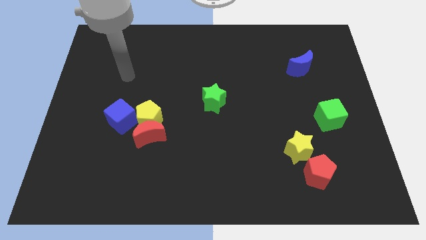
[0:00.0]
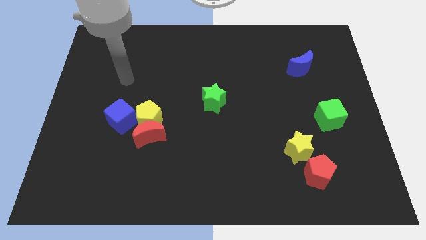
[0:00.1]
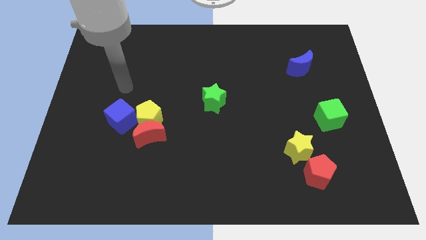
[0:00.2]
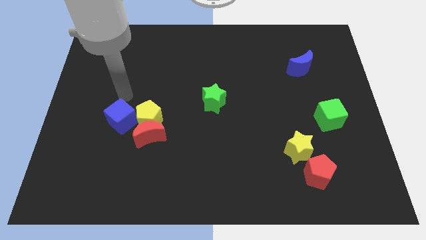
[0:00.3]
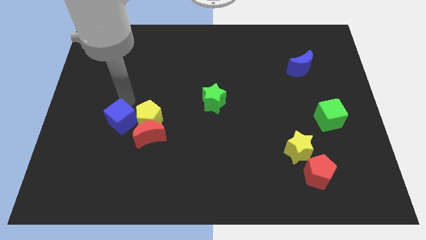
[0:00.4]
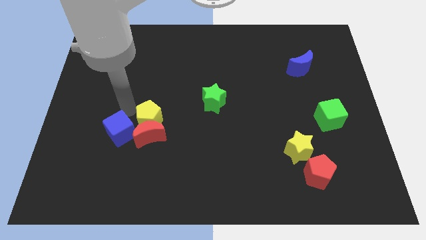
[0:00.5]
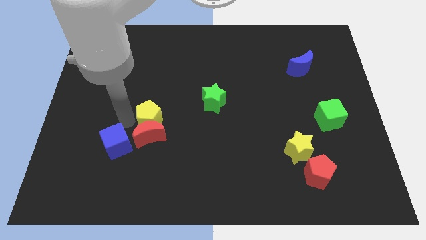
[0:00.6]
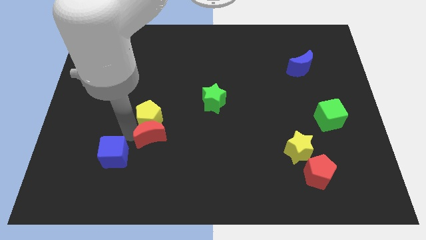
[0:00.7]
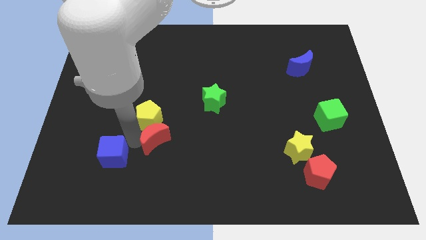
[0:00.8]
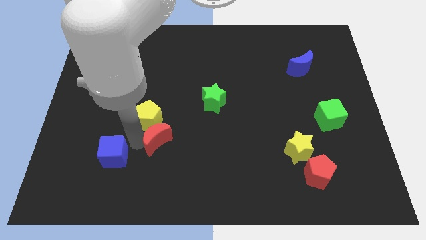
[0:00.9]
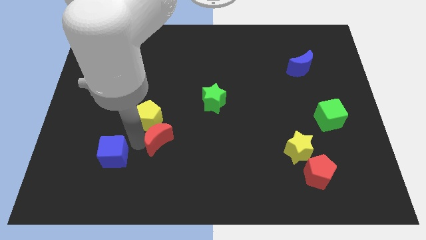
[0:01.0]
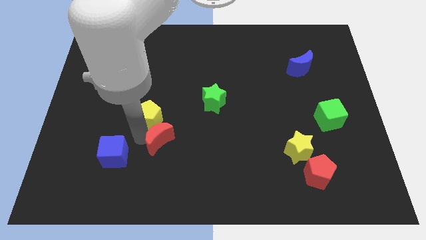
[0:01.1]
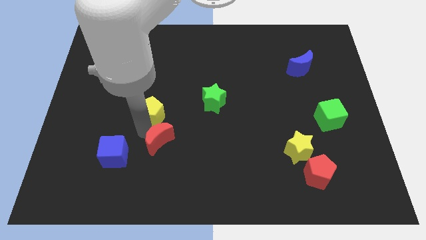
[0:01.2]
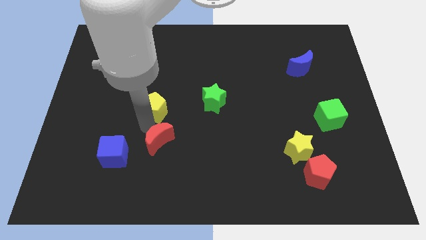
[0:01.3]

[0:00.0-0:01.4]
separate the yellow pentagon from the red moon and blue cube

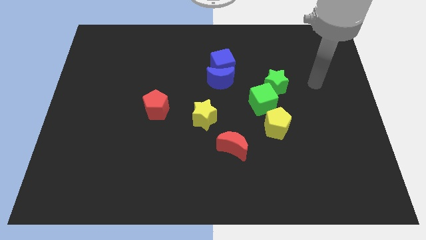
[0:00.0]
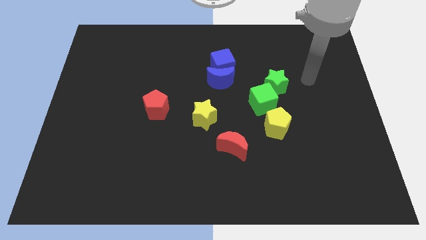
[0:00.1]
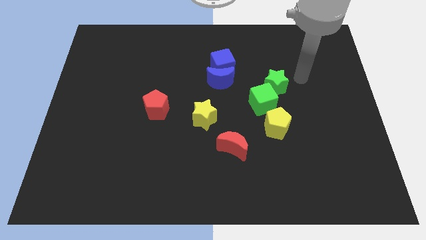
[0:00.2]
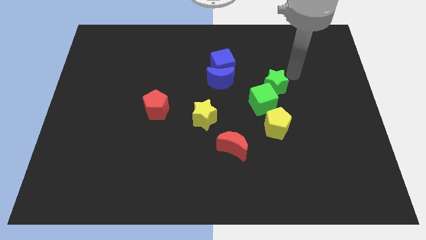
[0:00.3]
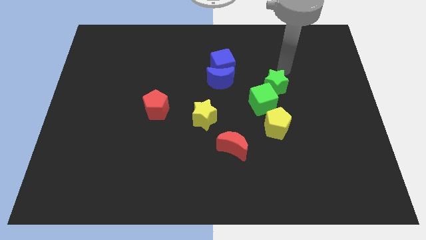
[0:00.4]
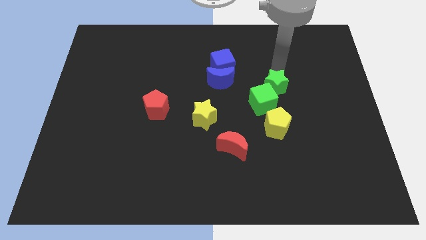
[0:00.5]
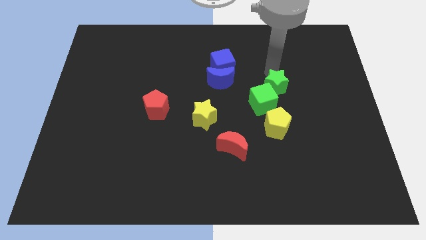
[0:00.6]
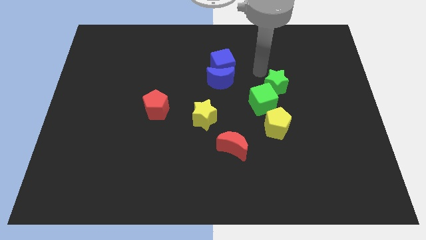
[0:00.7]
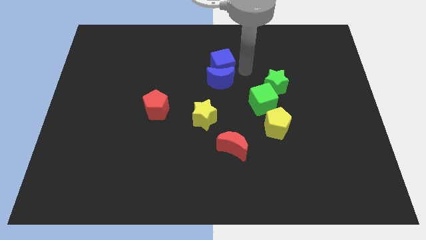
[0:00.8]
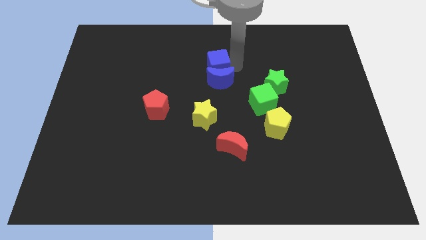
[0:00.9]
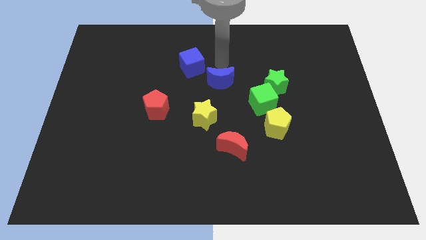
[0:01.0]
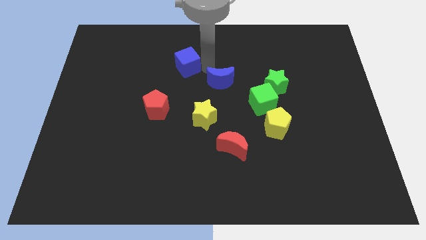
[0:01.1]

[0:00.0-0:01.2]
separate the blue moon from the blue cube

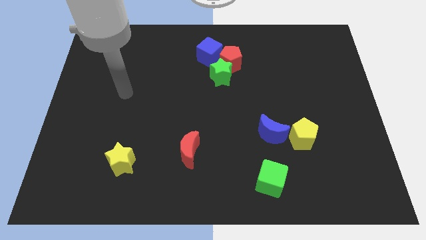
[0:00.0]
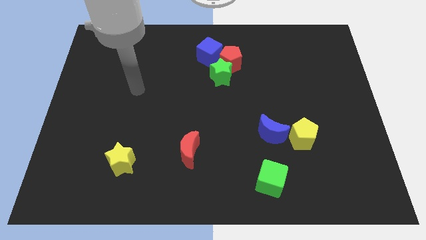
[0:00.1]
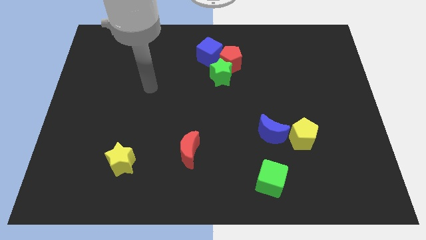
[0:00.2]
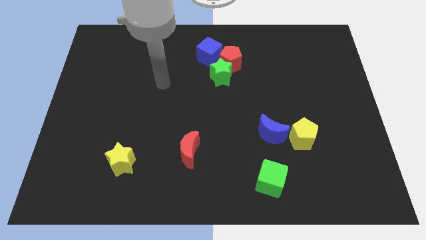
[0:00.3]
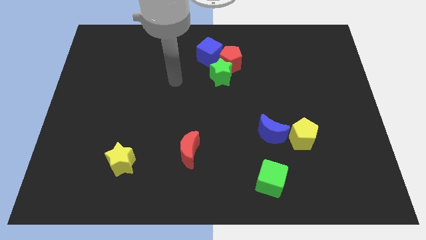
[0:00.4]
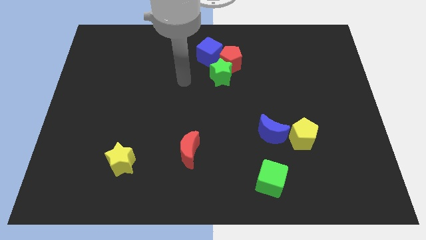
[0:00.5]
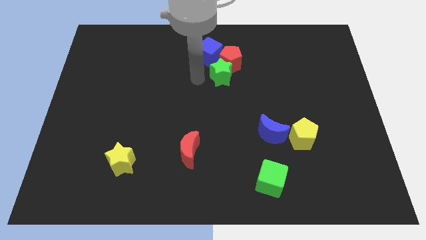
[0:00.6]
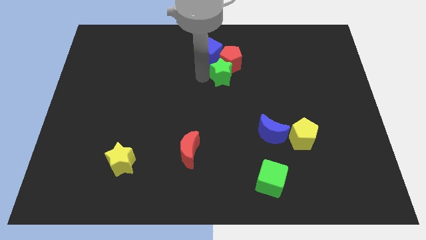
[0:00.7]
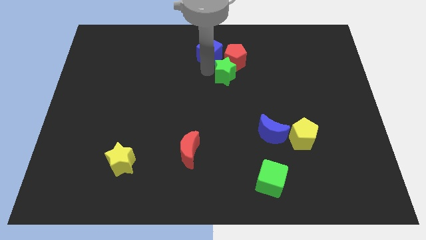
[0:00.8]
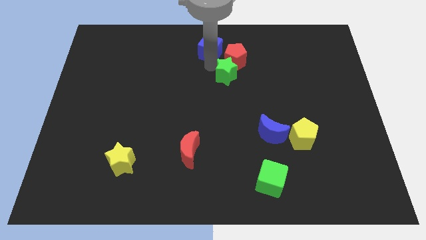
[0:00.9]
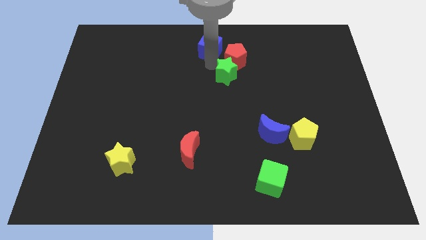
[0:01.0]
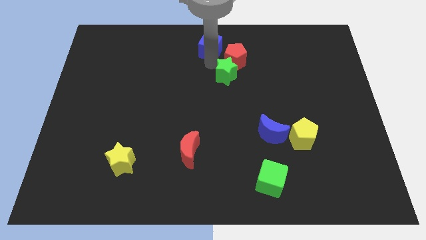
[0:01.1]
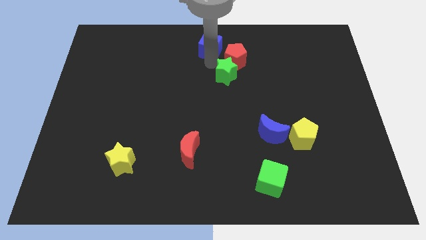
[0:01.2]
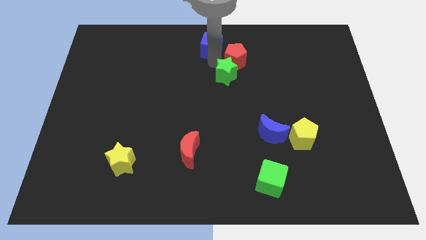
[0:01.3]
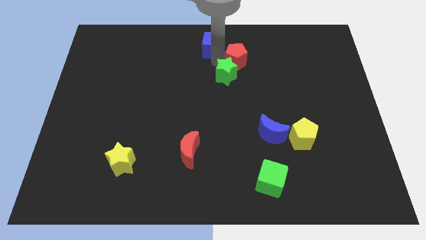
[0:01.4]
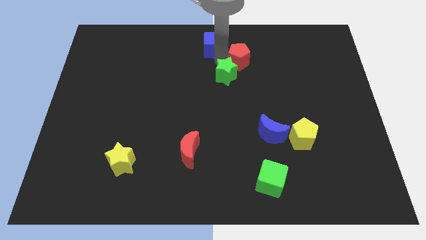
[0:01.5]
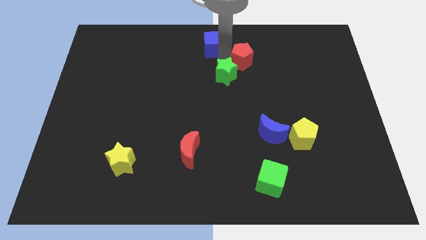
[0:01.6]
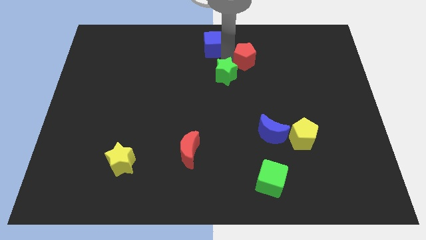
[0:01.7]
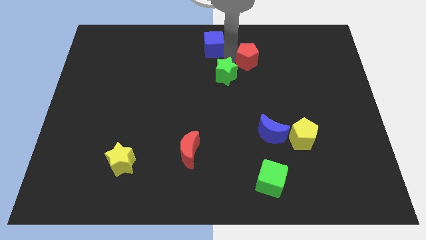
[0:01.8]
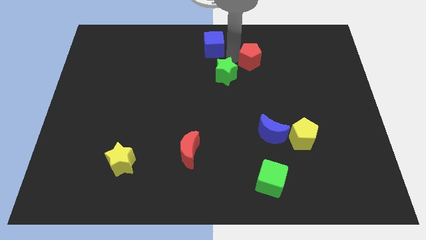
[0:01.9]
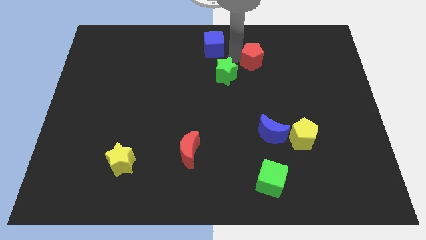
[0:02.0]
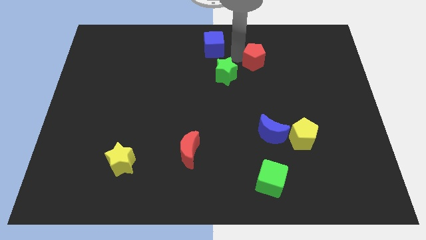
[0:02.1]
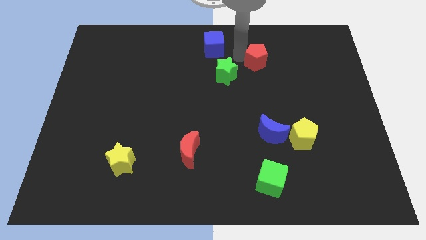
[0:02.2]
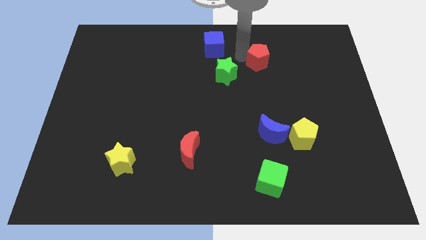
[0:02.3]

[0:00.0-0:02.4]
move the red pentagon away from the green star and blue cube

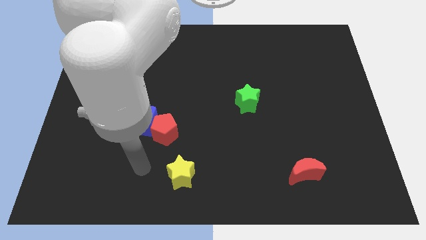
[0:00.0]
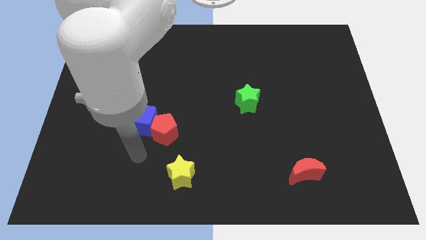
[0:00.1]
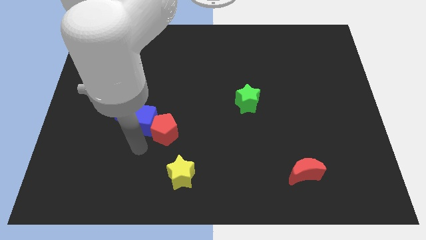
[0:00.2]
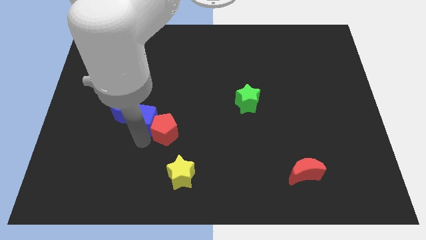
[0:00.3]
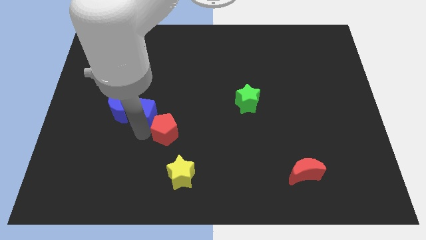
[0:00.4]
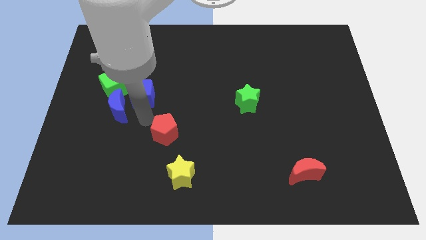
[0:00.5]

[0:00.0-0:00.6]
move the red pentagon away from the blue cube

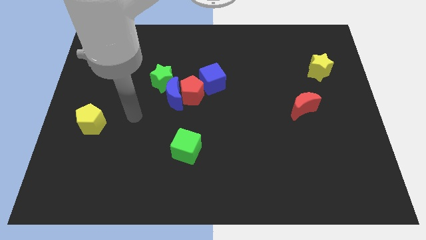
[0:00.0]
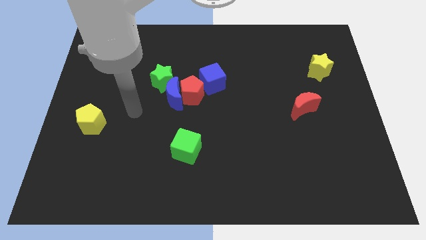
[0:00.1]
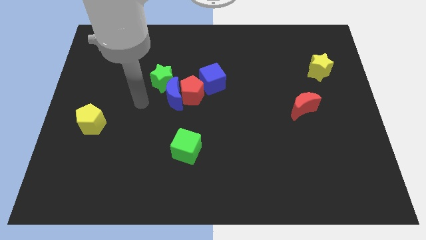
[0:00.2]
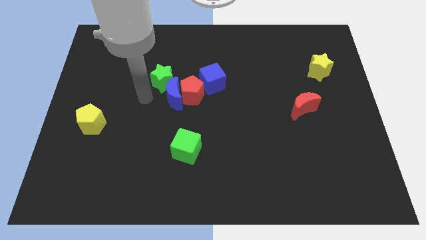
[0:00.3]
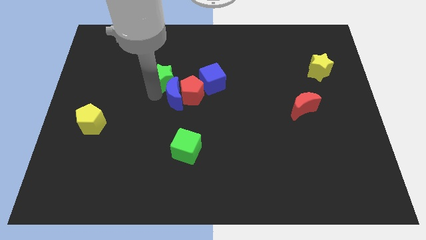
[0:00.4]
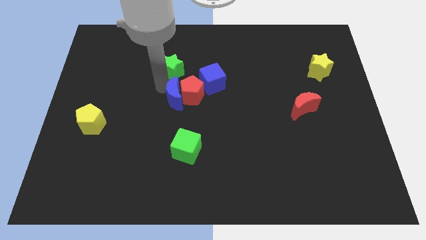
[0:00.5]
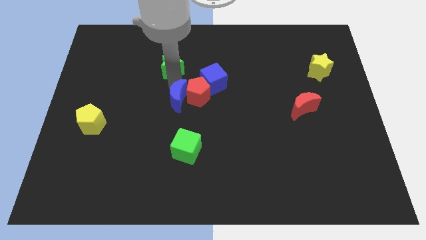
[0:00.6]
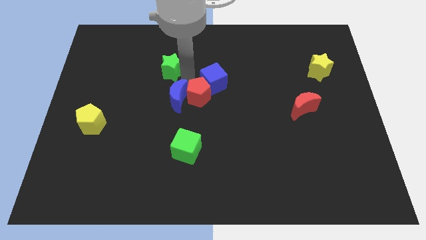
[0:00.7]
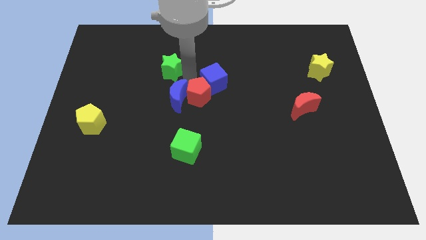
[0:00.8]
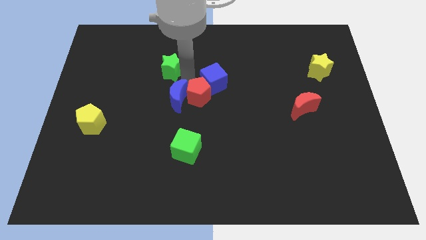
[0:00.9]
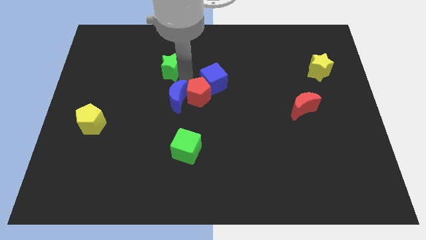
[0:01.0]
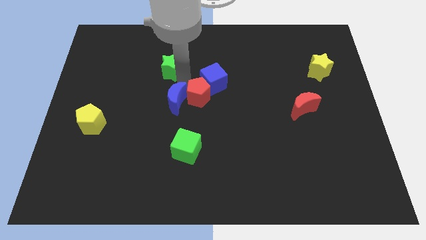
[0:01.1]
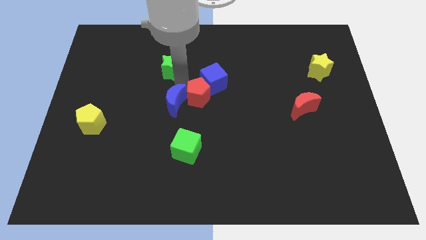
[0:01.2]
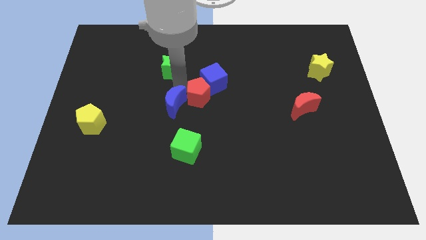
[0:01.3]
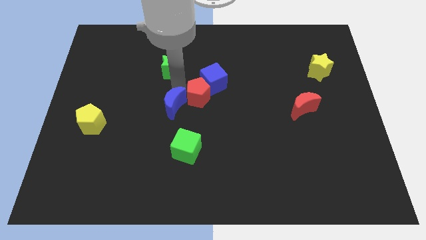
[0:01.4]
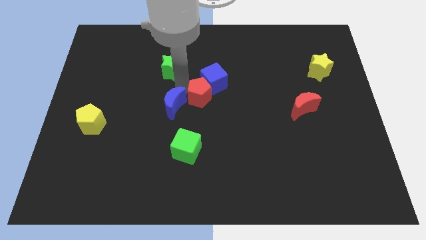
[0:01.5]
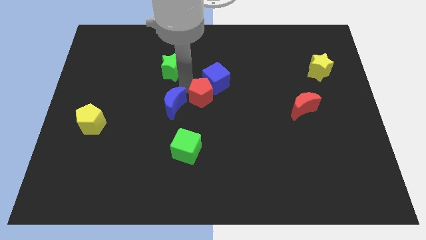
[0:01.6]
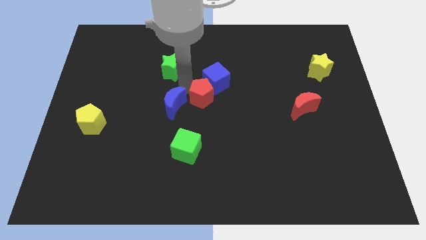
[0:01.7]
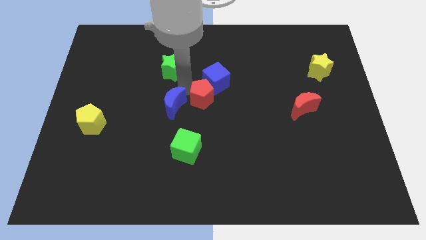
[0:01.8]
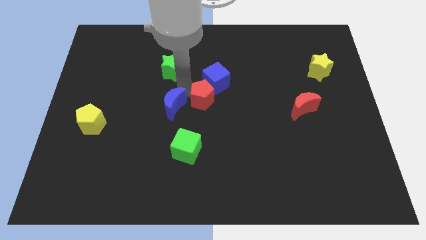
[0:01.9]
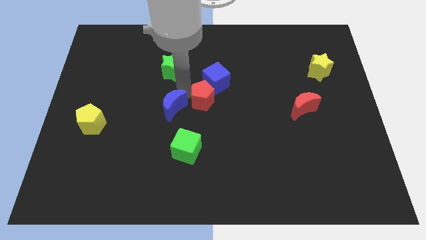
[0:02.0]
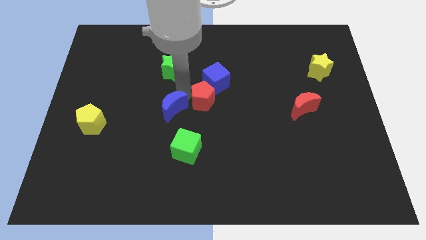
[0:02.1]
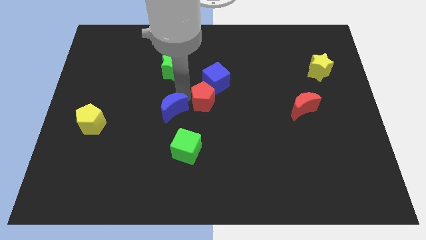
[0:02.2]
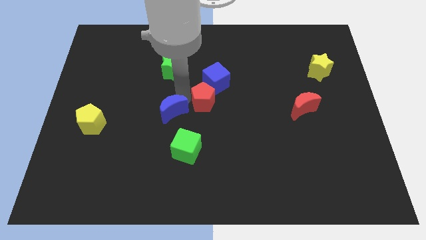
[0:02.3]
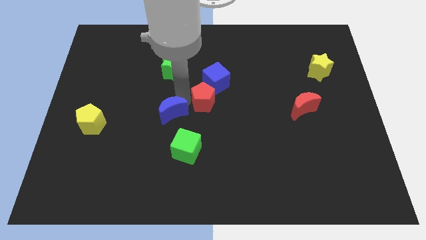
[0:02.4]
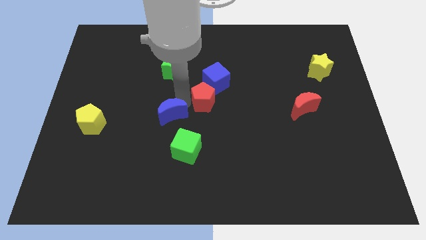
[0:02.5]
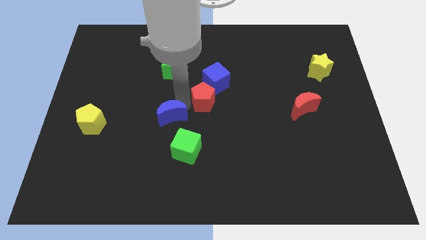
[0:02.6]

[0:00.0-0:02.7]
pull the blue moon apart from the red pentagon and green star

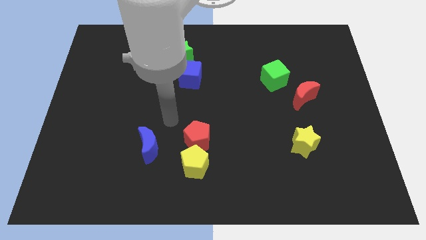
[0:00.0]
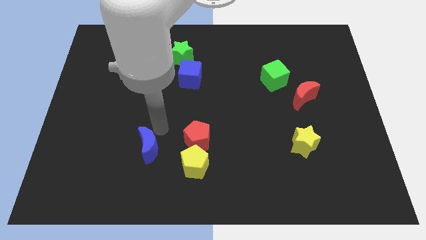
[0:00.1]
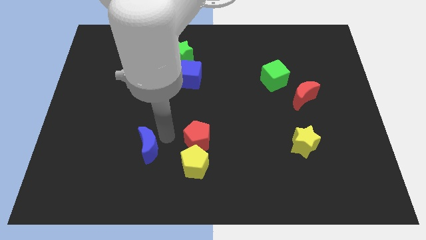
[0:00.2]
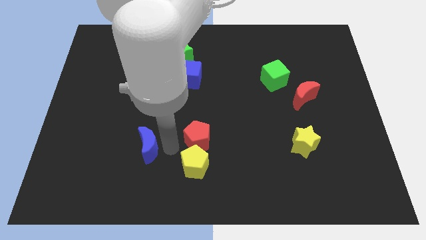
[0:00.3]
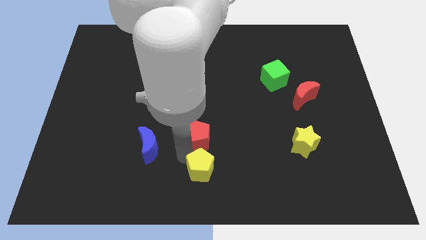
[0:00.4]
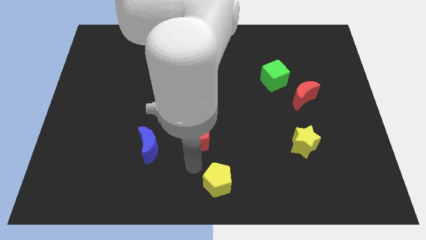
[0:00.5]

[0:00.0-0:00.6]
separate the red pentagon from the yellow pentagon

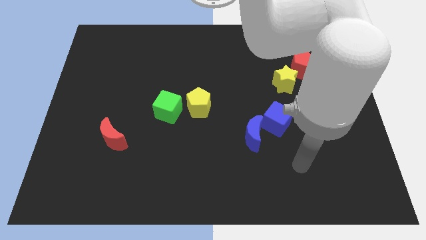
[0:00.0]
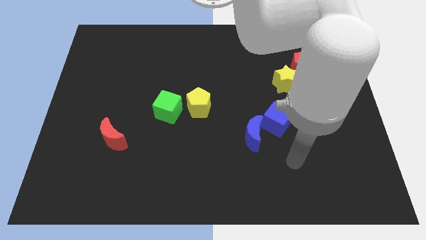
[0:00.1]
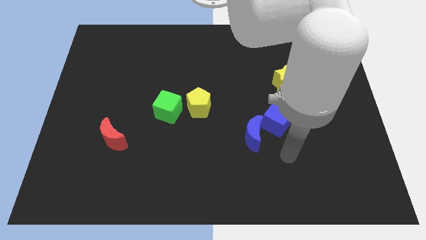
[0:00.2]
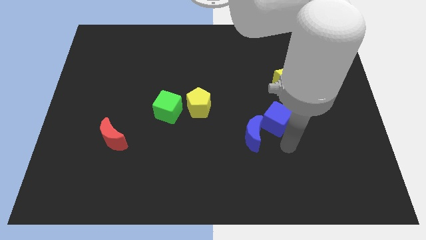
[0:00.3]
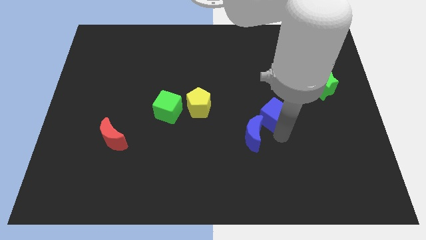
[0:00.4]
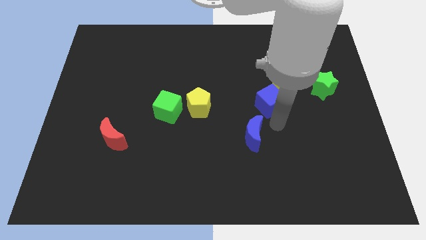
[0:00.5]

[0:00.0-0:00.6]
pull the blue moon apart from the blue cube
